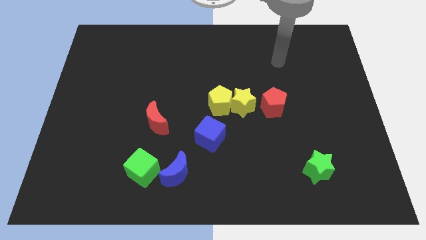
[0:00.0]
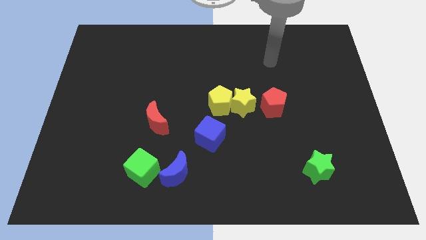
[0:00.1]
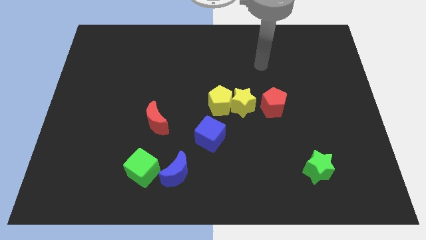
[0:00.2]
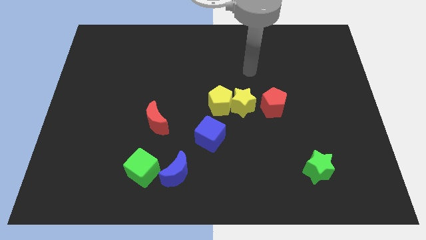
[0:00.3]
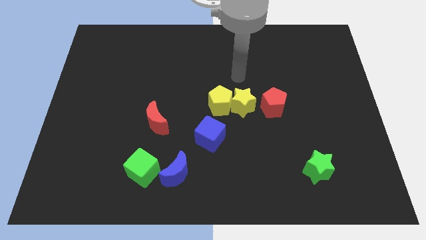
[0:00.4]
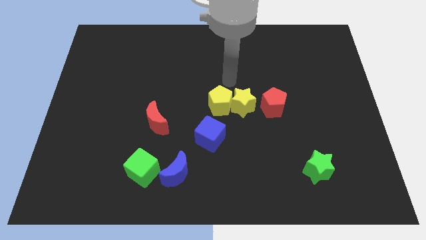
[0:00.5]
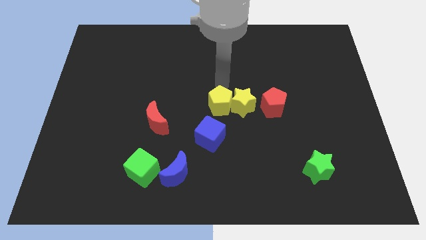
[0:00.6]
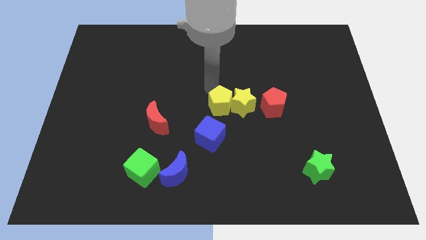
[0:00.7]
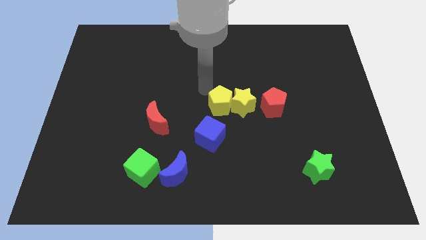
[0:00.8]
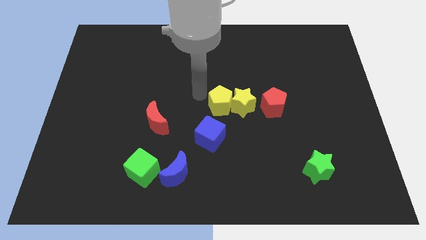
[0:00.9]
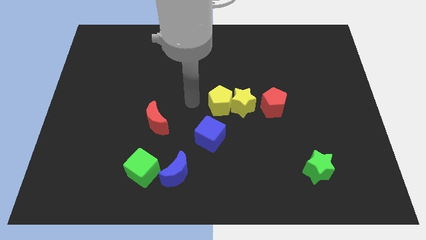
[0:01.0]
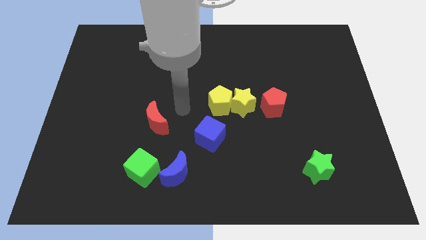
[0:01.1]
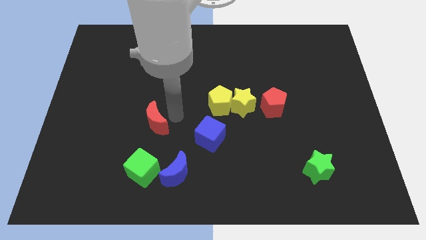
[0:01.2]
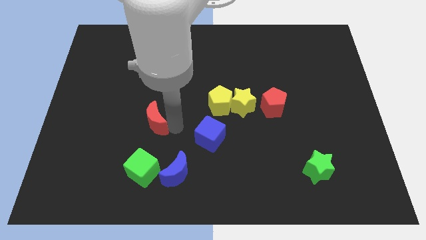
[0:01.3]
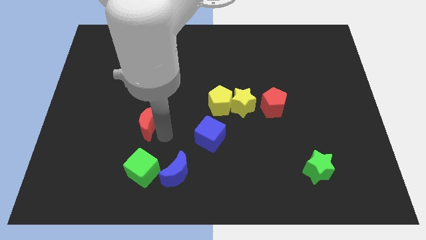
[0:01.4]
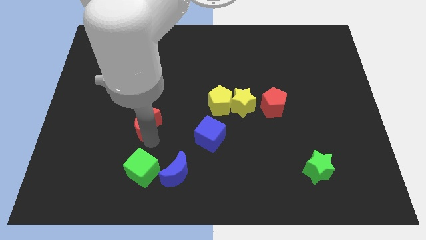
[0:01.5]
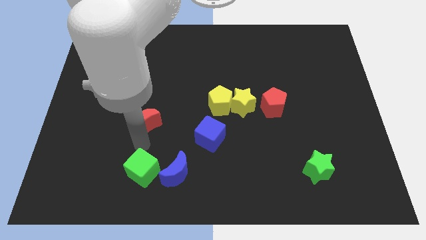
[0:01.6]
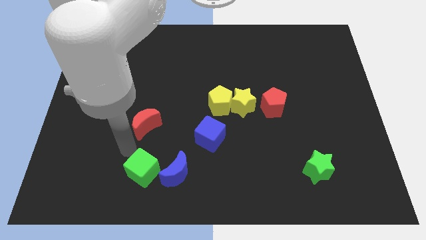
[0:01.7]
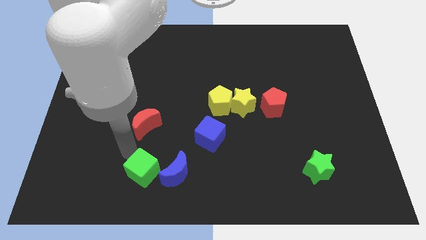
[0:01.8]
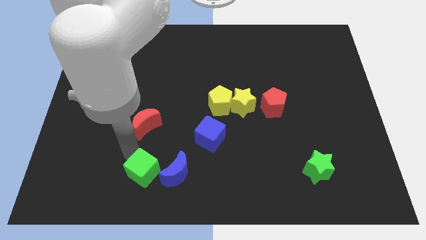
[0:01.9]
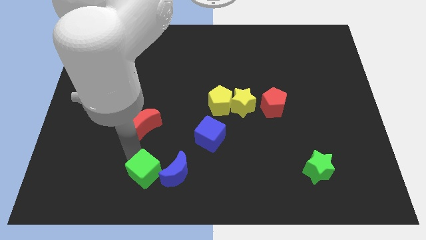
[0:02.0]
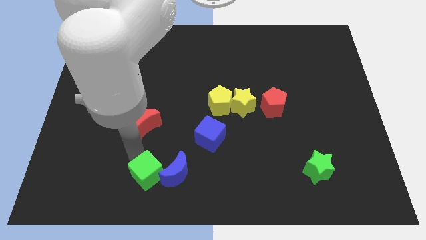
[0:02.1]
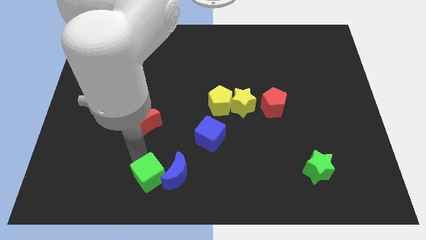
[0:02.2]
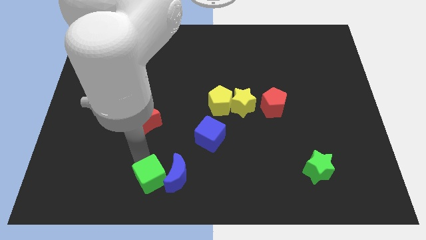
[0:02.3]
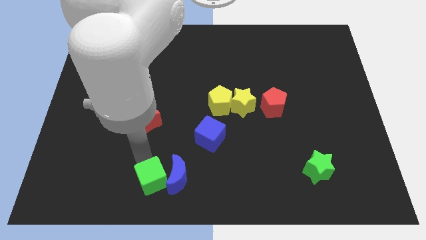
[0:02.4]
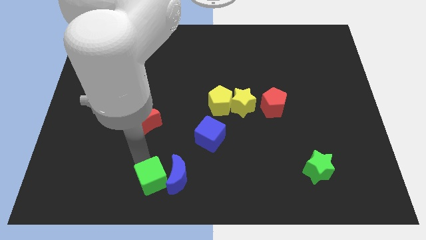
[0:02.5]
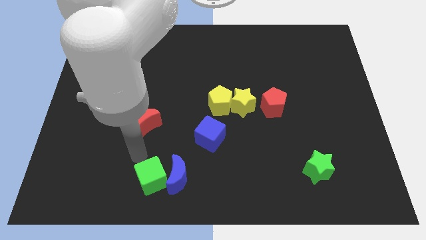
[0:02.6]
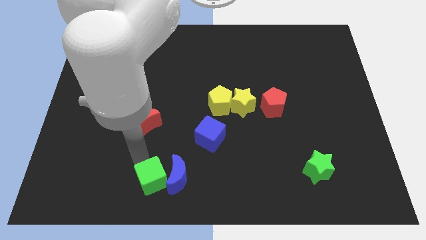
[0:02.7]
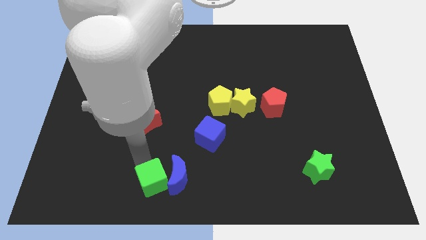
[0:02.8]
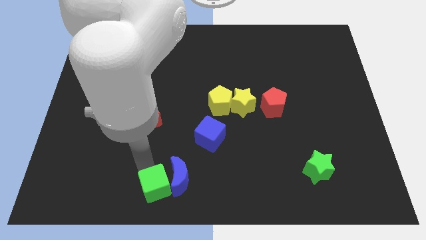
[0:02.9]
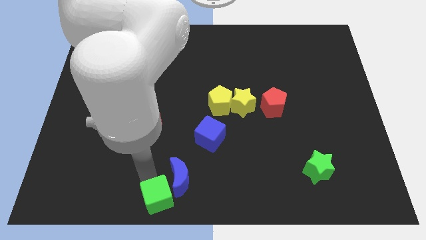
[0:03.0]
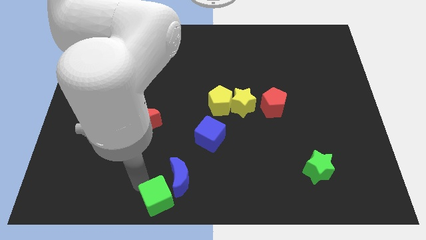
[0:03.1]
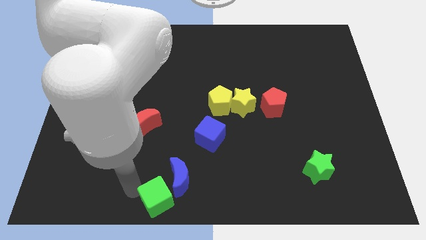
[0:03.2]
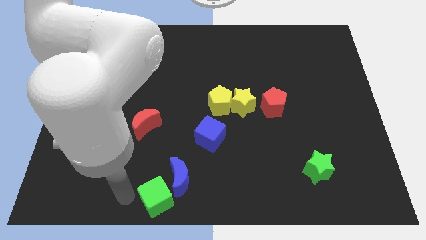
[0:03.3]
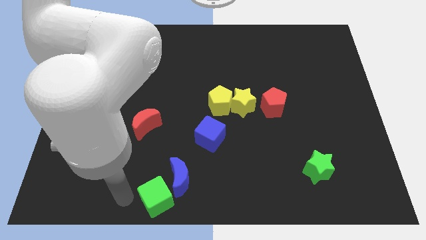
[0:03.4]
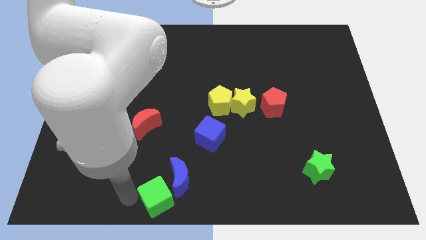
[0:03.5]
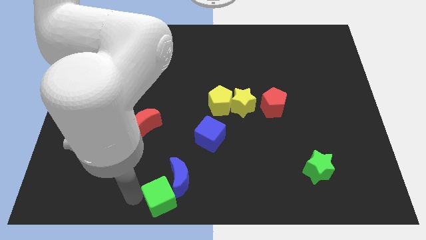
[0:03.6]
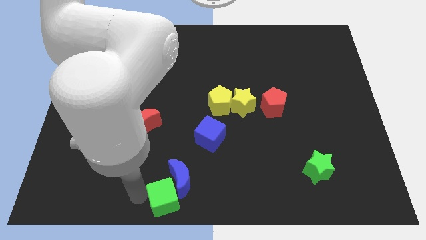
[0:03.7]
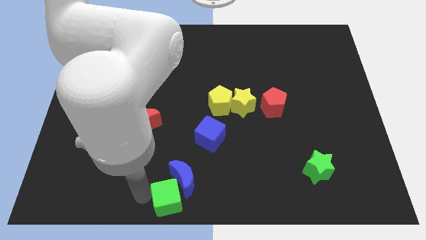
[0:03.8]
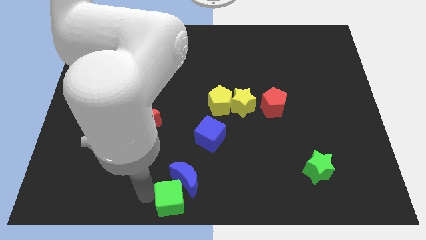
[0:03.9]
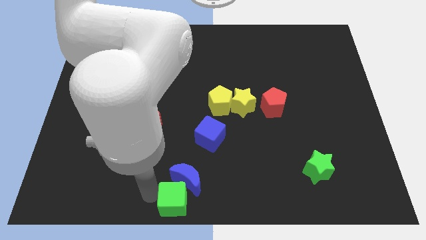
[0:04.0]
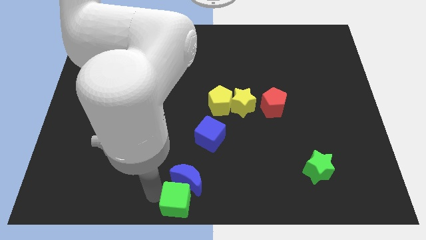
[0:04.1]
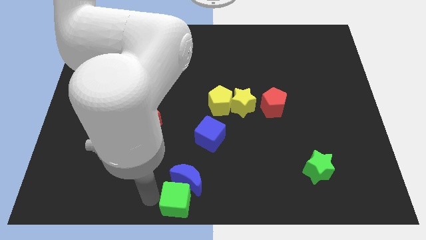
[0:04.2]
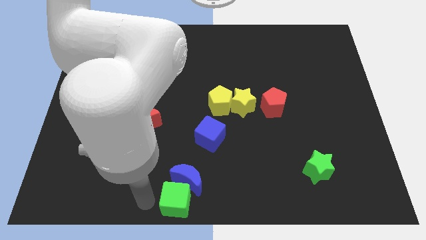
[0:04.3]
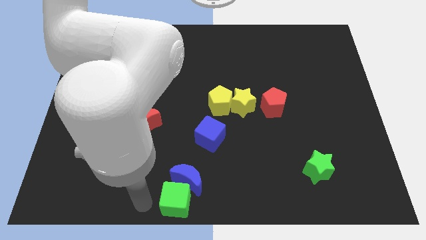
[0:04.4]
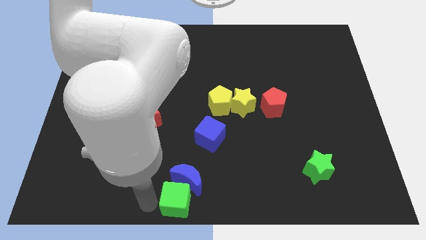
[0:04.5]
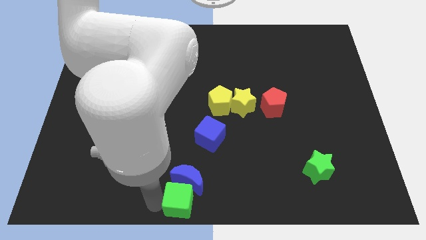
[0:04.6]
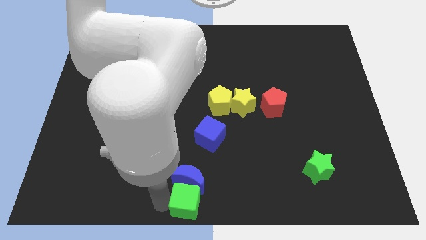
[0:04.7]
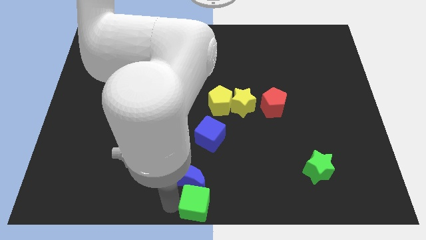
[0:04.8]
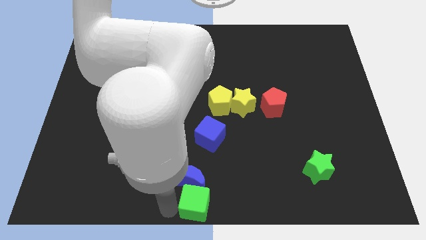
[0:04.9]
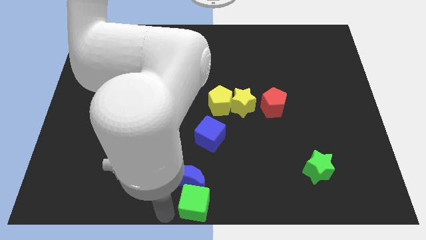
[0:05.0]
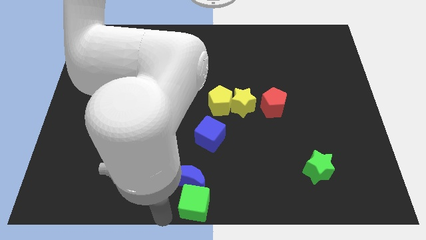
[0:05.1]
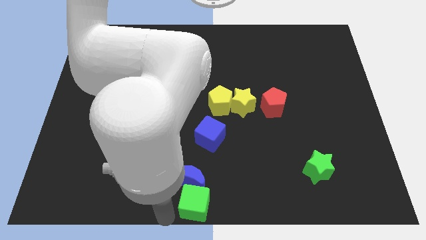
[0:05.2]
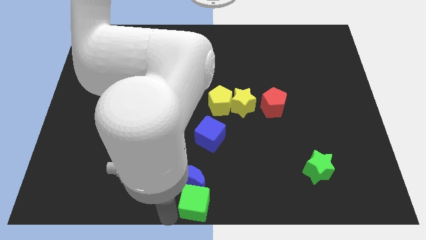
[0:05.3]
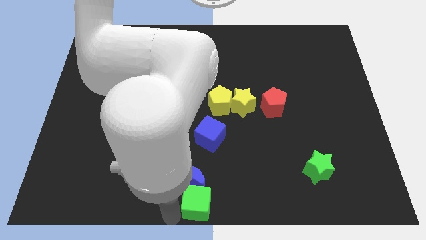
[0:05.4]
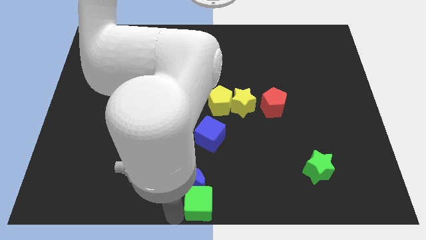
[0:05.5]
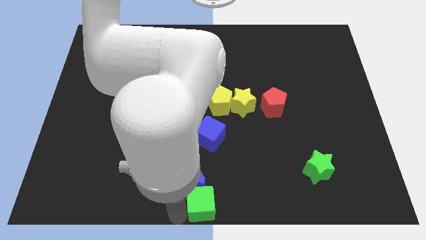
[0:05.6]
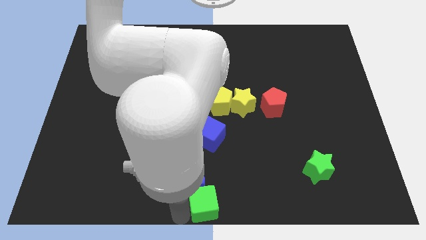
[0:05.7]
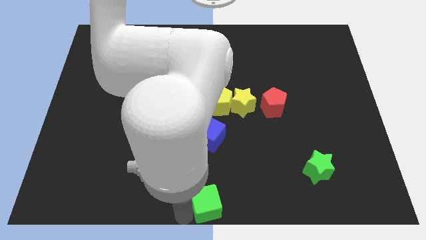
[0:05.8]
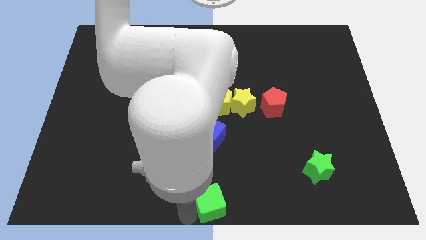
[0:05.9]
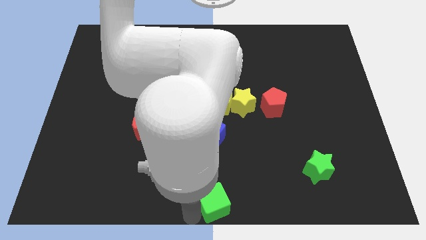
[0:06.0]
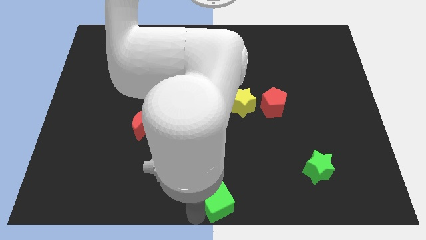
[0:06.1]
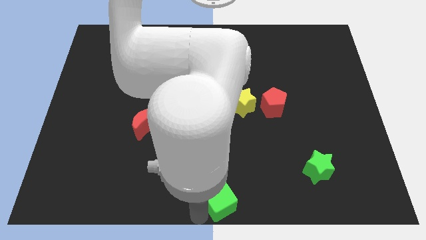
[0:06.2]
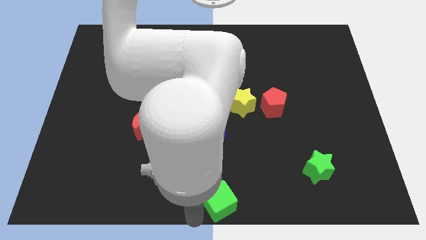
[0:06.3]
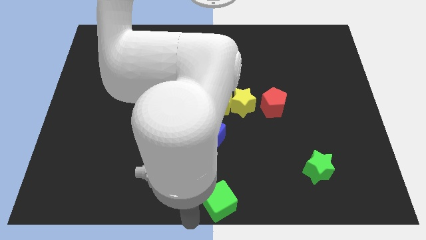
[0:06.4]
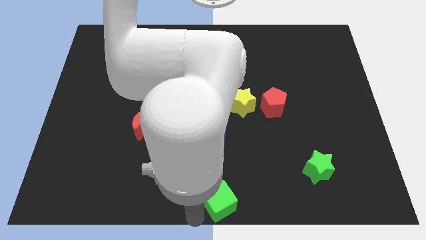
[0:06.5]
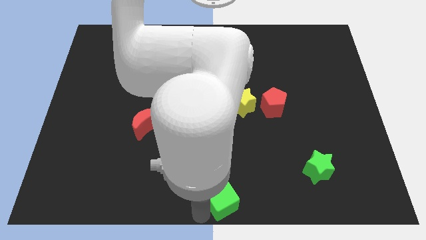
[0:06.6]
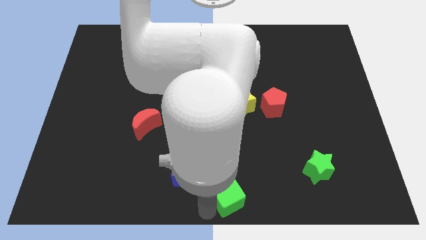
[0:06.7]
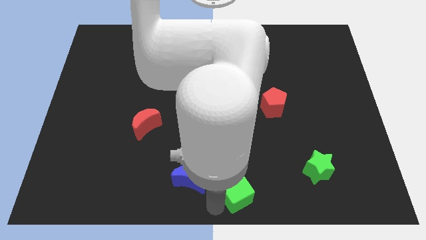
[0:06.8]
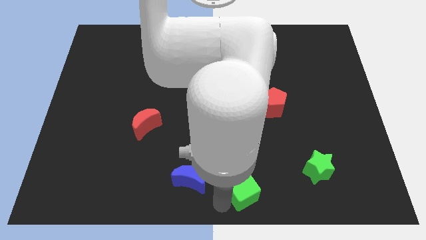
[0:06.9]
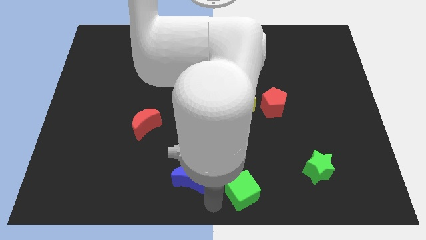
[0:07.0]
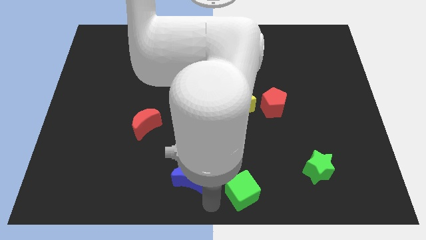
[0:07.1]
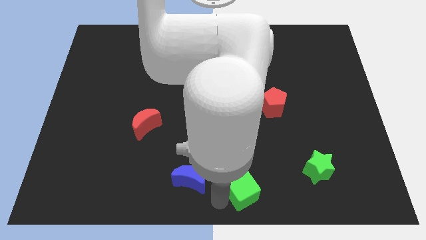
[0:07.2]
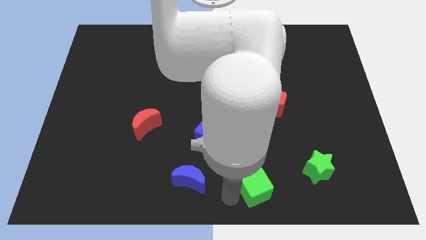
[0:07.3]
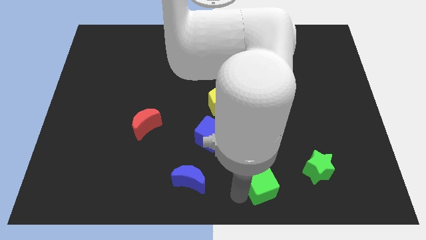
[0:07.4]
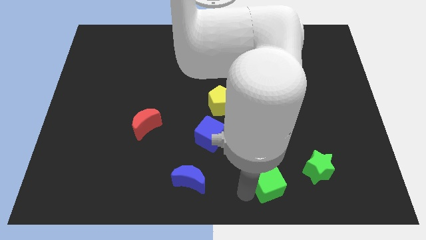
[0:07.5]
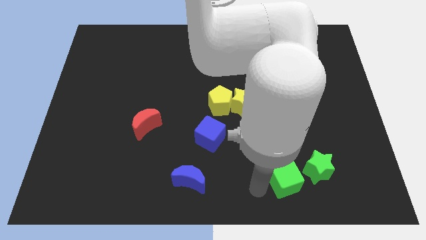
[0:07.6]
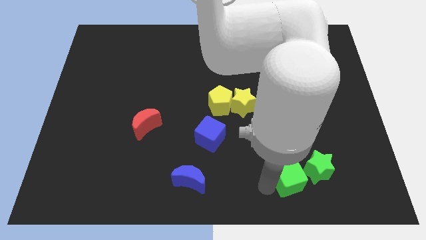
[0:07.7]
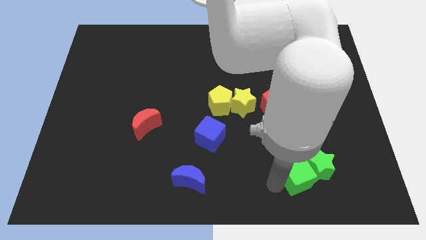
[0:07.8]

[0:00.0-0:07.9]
push the green cube to the green star
